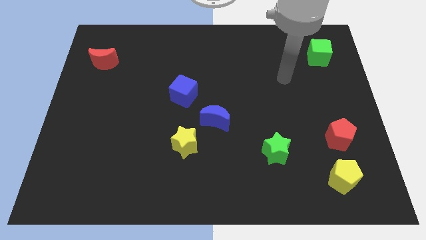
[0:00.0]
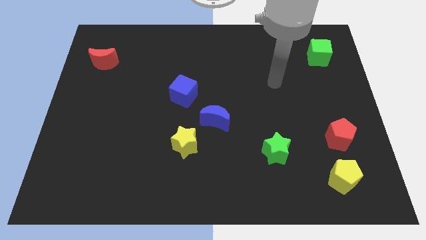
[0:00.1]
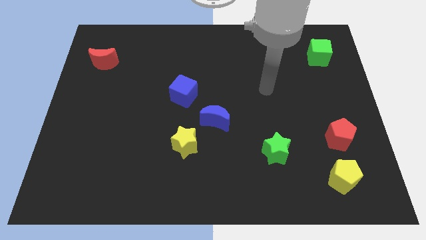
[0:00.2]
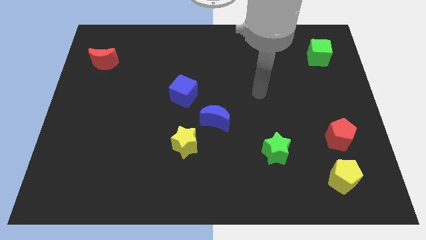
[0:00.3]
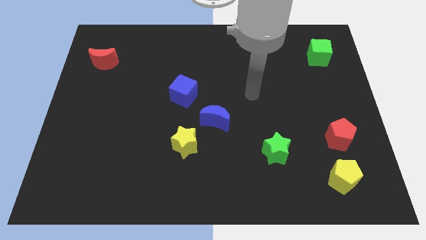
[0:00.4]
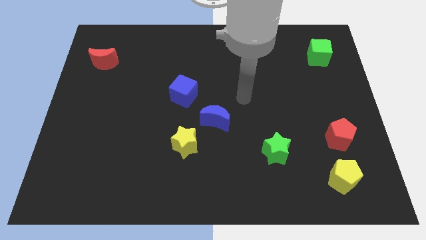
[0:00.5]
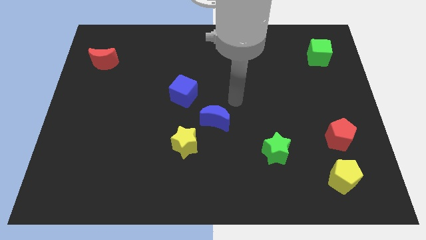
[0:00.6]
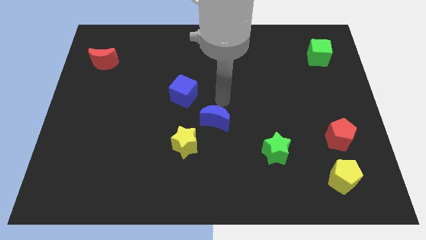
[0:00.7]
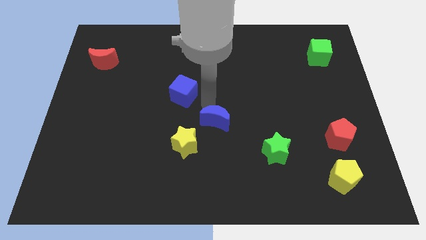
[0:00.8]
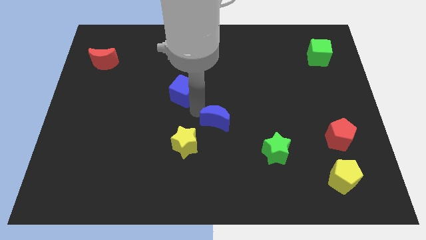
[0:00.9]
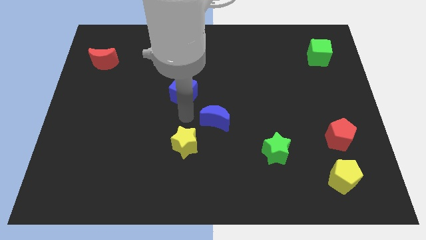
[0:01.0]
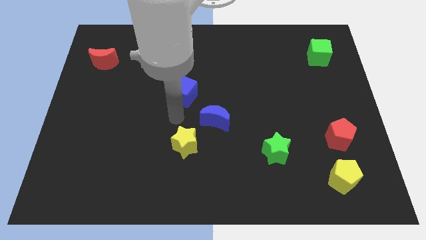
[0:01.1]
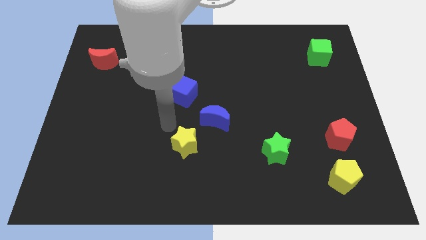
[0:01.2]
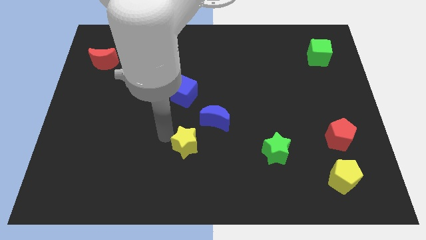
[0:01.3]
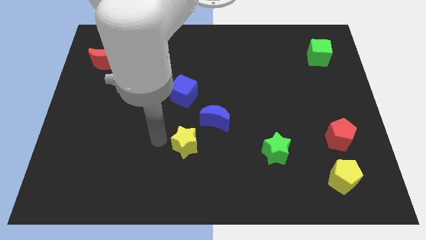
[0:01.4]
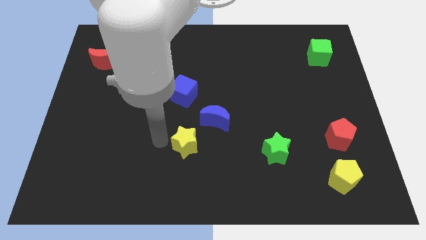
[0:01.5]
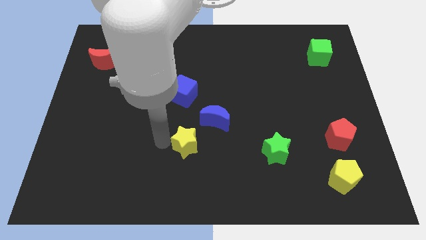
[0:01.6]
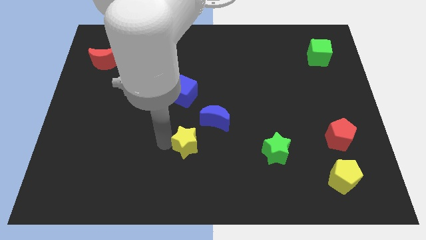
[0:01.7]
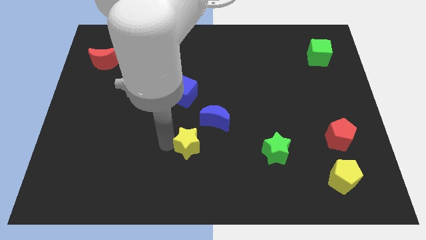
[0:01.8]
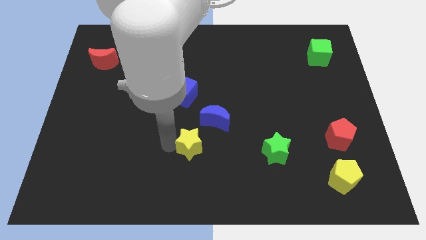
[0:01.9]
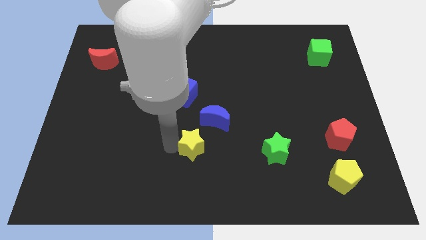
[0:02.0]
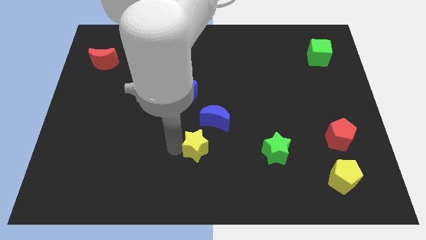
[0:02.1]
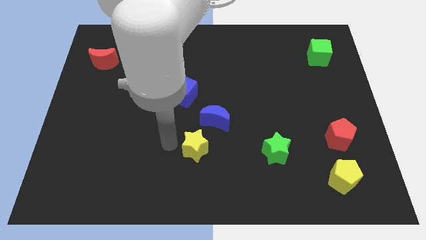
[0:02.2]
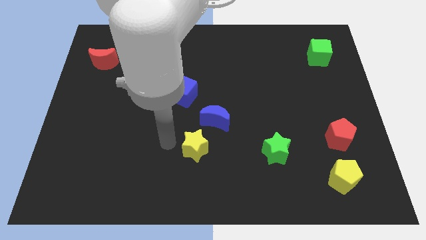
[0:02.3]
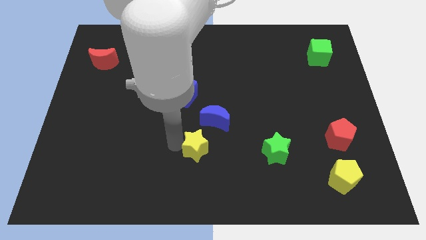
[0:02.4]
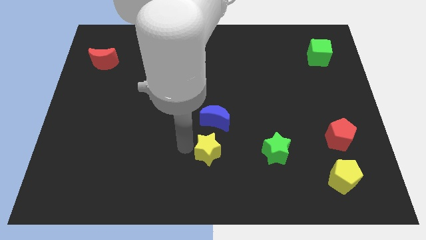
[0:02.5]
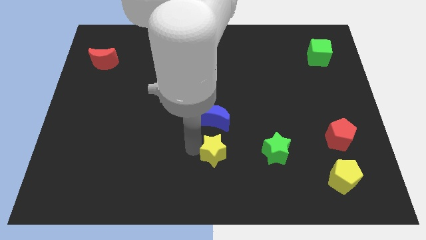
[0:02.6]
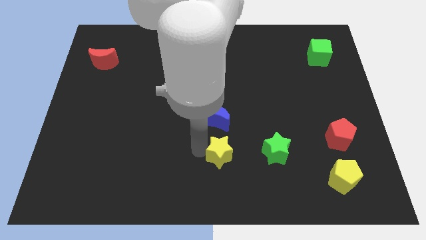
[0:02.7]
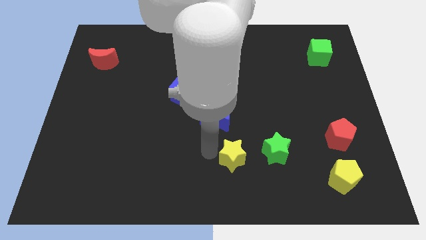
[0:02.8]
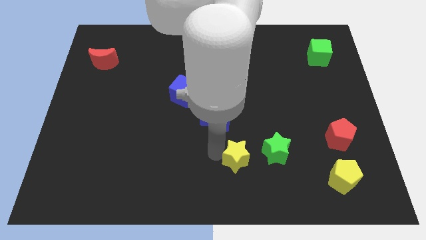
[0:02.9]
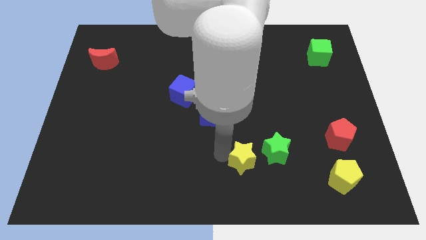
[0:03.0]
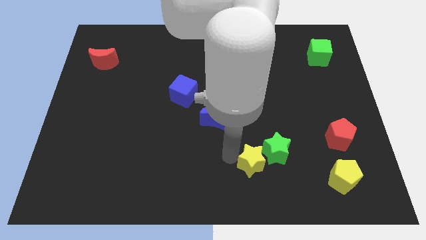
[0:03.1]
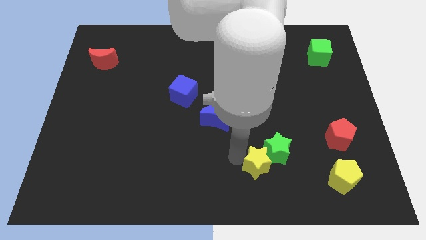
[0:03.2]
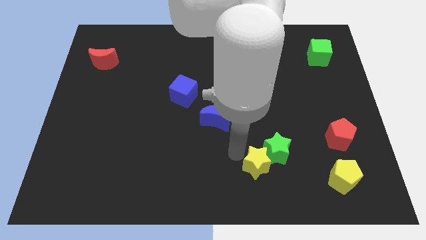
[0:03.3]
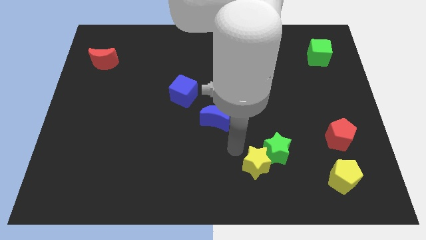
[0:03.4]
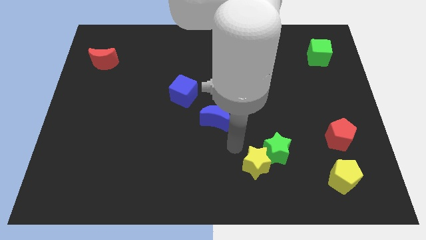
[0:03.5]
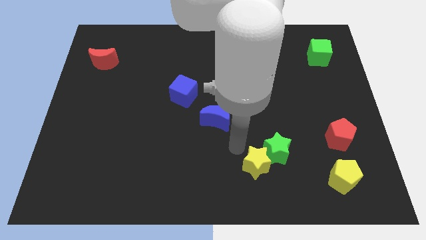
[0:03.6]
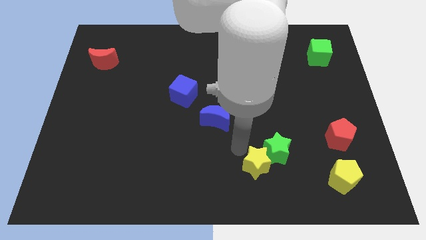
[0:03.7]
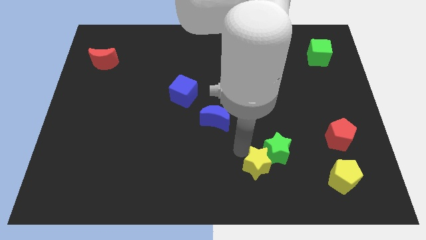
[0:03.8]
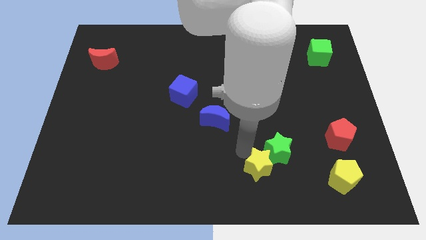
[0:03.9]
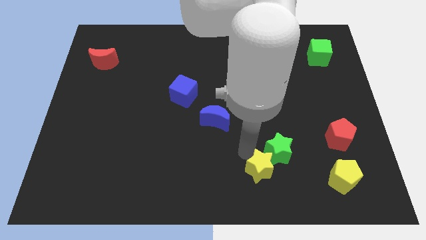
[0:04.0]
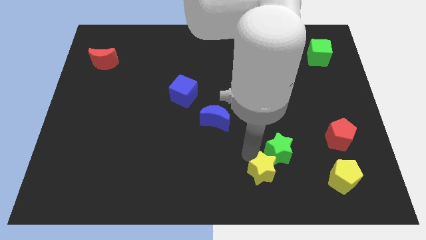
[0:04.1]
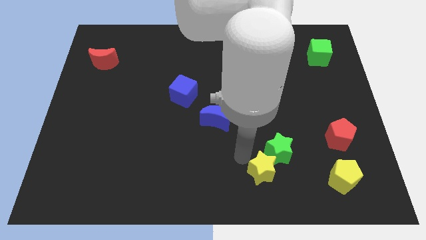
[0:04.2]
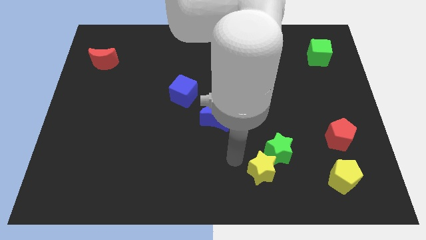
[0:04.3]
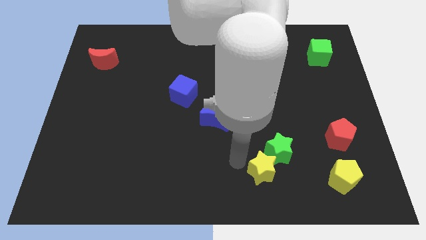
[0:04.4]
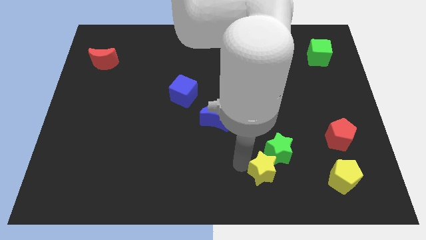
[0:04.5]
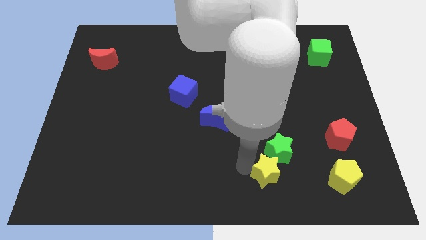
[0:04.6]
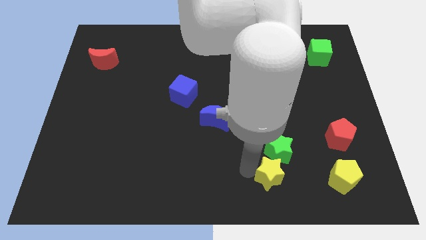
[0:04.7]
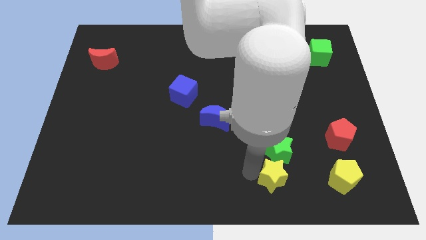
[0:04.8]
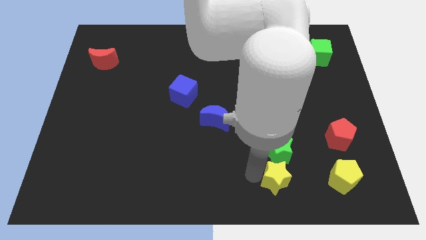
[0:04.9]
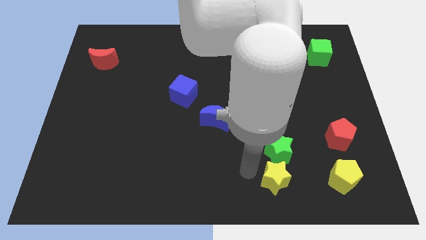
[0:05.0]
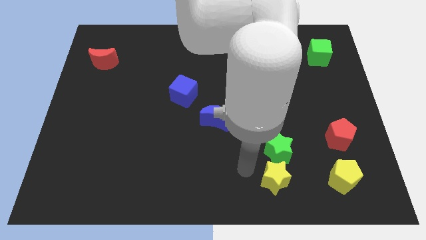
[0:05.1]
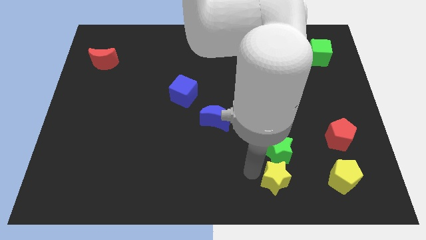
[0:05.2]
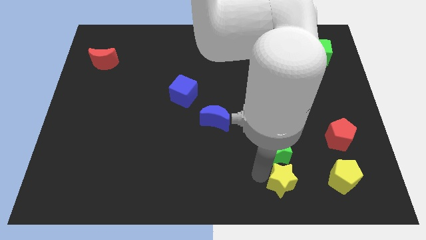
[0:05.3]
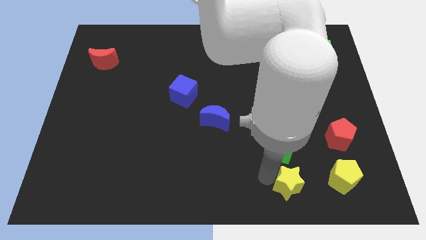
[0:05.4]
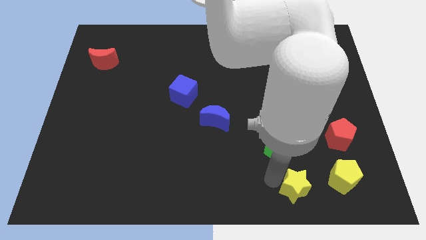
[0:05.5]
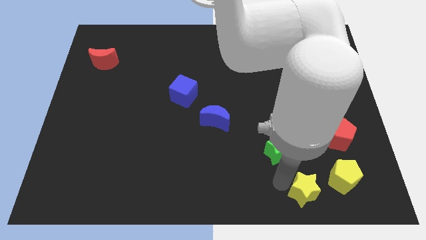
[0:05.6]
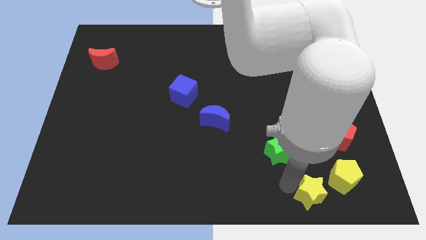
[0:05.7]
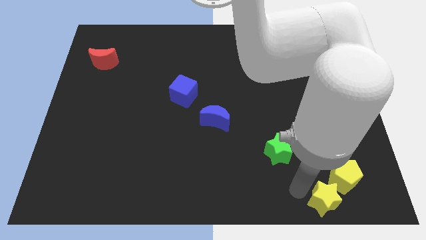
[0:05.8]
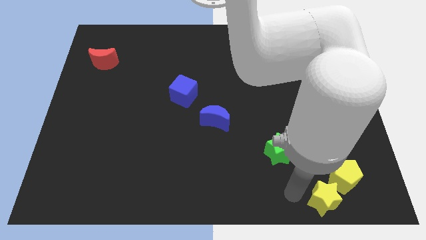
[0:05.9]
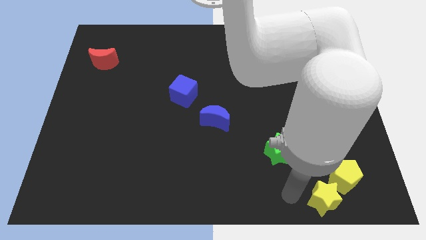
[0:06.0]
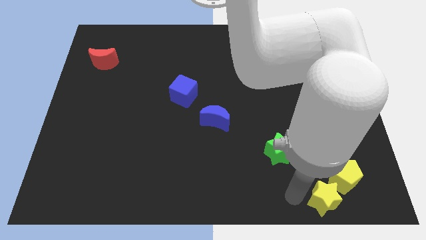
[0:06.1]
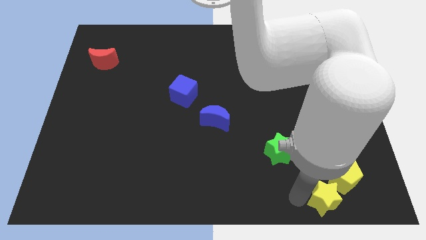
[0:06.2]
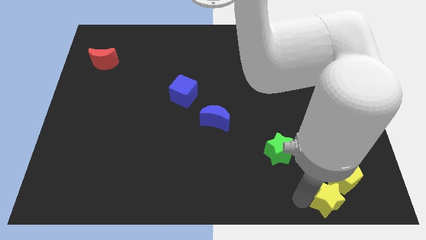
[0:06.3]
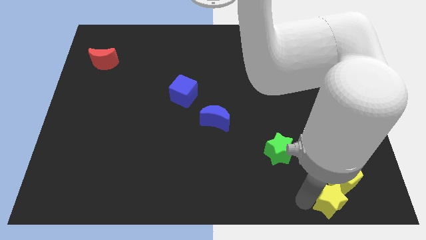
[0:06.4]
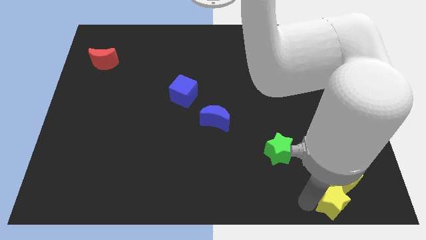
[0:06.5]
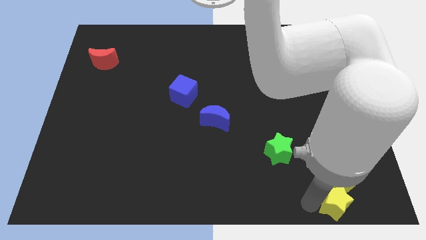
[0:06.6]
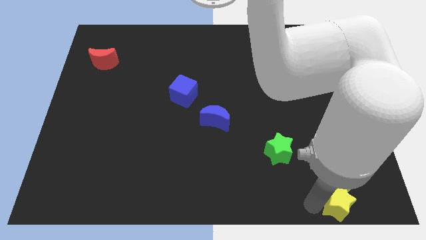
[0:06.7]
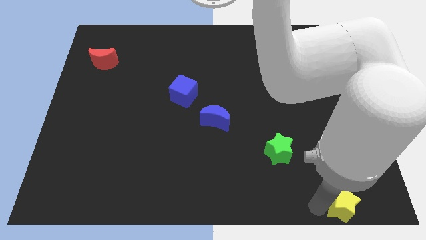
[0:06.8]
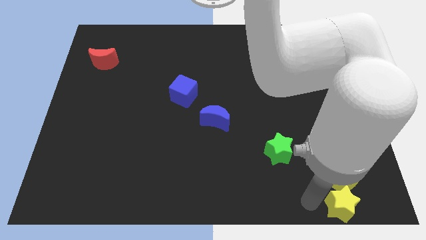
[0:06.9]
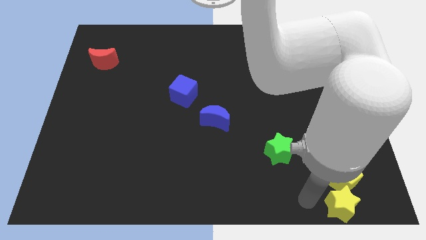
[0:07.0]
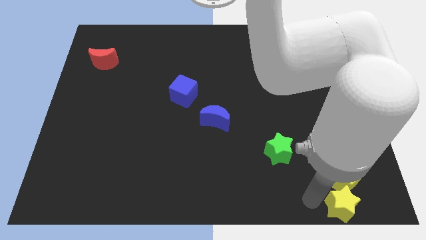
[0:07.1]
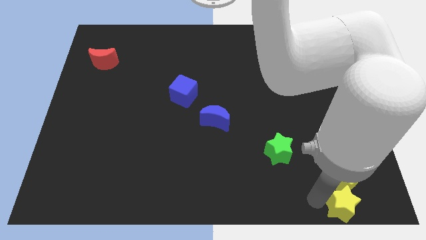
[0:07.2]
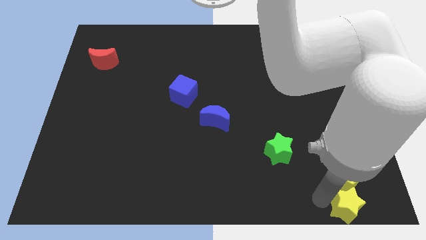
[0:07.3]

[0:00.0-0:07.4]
slide the yellow star to the bottom right corner

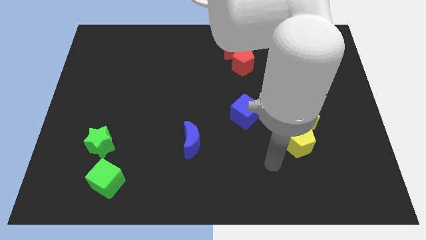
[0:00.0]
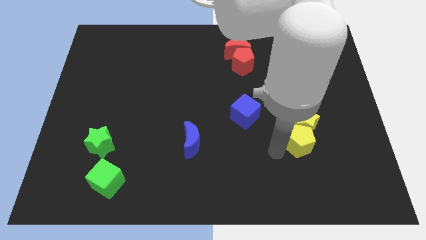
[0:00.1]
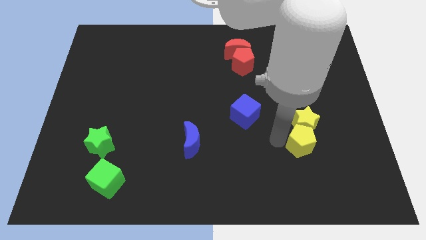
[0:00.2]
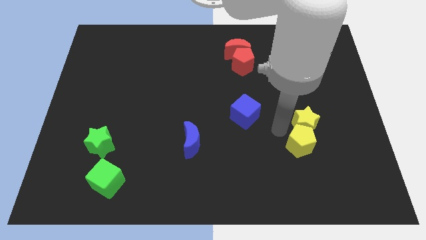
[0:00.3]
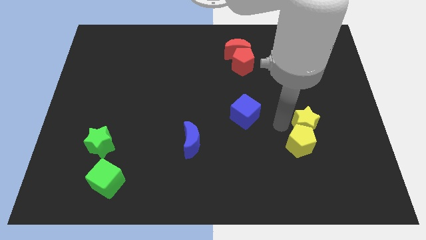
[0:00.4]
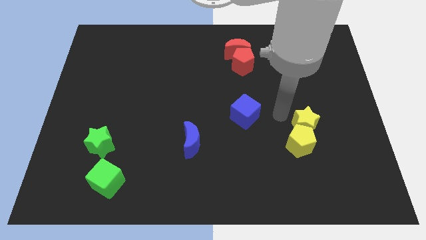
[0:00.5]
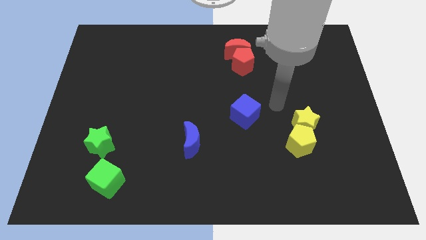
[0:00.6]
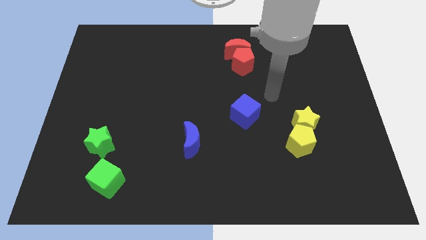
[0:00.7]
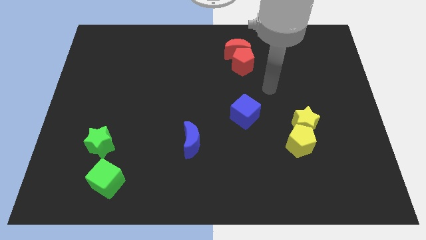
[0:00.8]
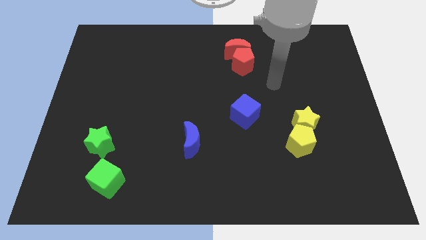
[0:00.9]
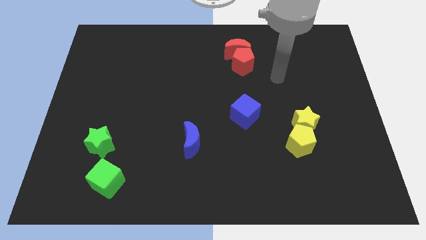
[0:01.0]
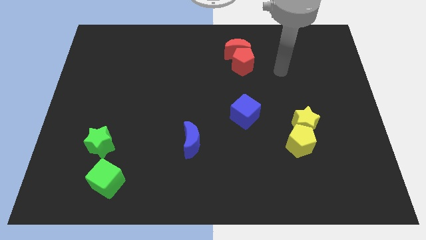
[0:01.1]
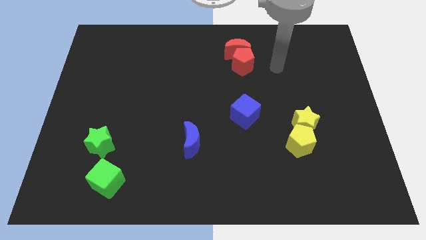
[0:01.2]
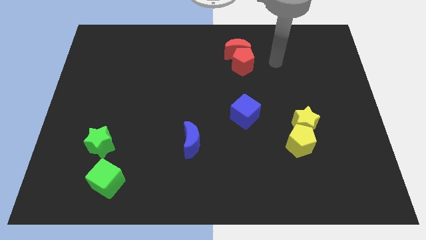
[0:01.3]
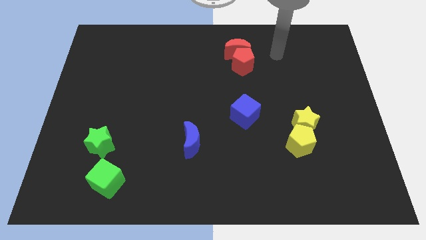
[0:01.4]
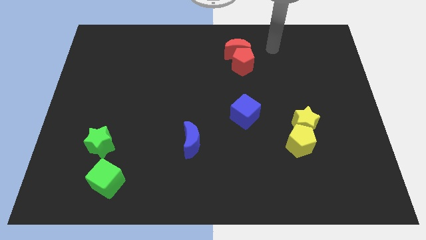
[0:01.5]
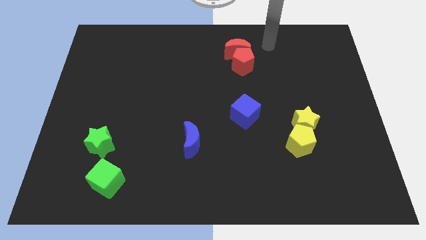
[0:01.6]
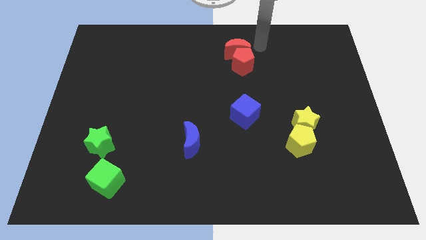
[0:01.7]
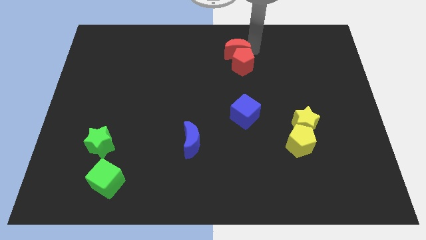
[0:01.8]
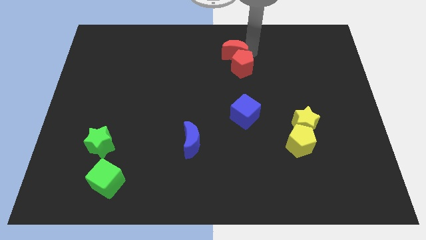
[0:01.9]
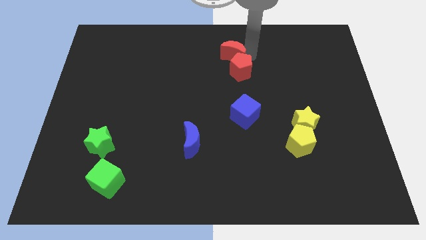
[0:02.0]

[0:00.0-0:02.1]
push the red pentagon to the middle
